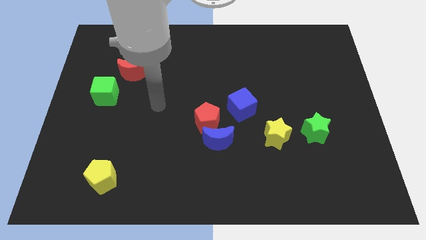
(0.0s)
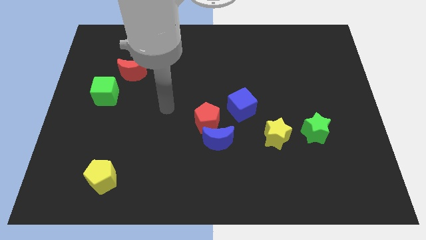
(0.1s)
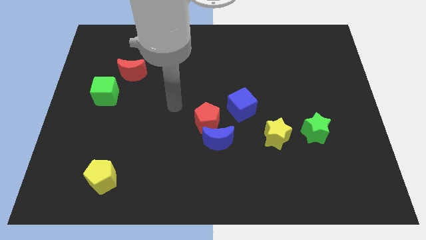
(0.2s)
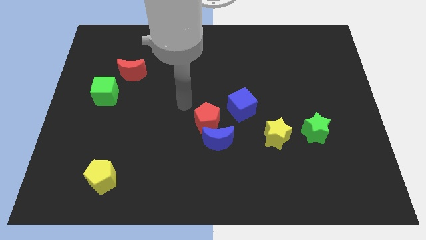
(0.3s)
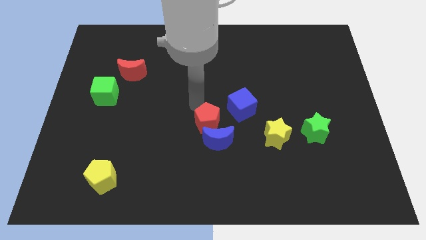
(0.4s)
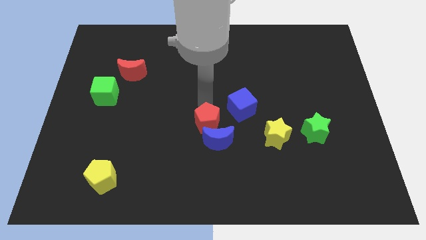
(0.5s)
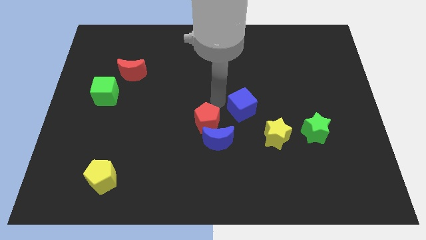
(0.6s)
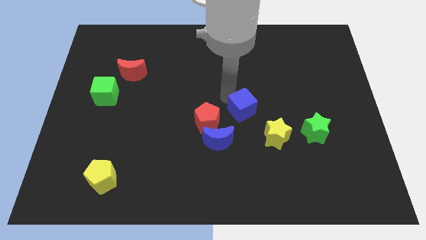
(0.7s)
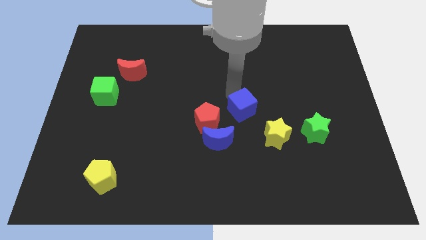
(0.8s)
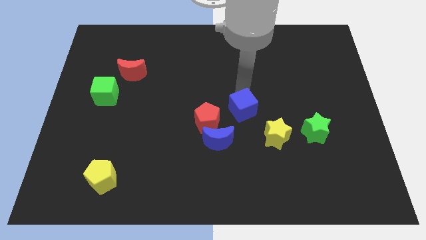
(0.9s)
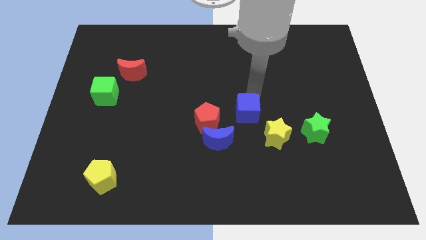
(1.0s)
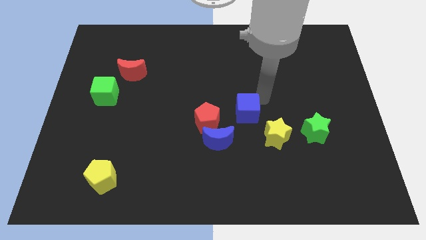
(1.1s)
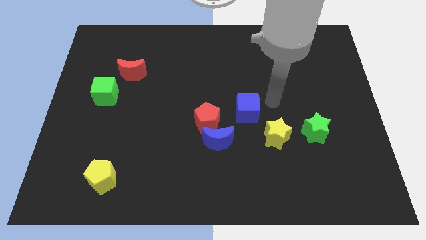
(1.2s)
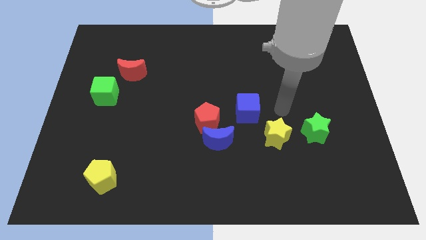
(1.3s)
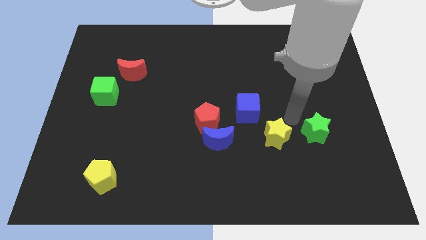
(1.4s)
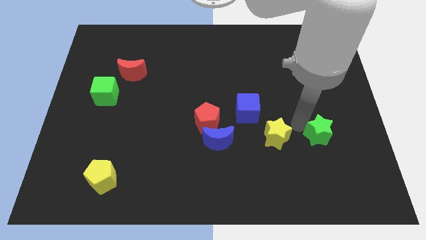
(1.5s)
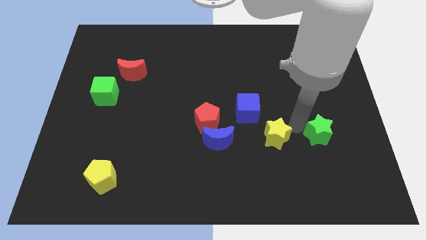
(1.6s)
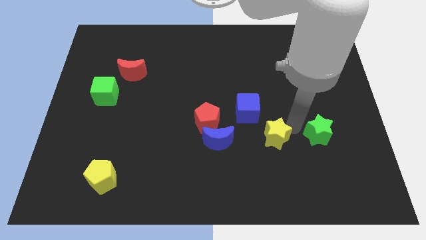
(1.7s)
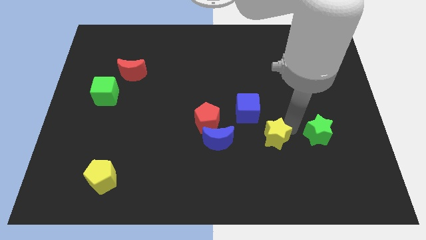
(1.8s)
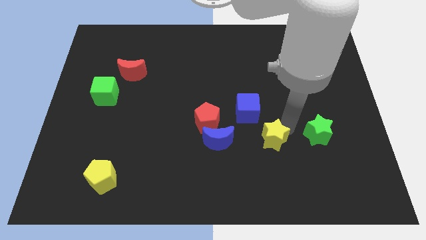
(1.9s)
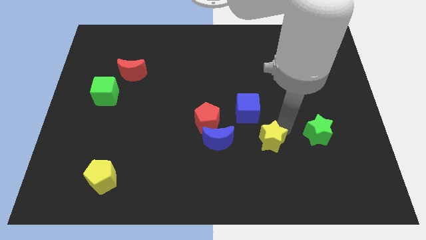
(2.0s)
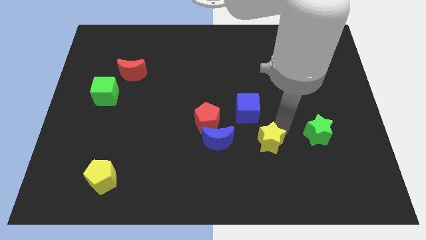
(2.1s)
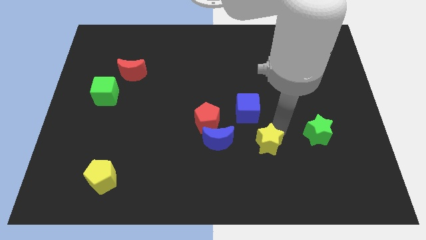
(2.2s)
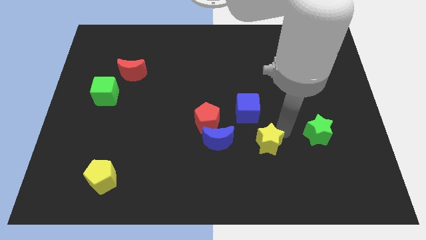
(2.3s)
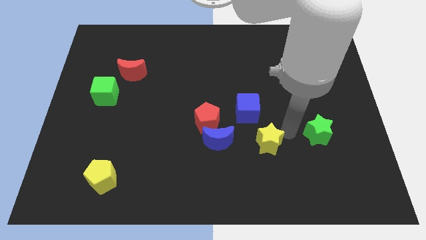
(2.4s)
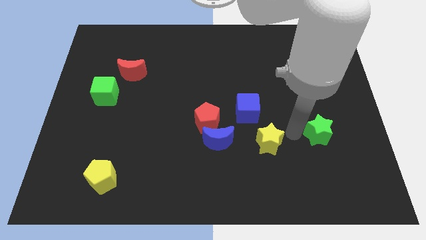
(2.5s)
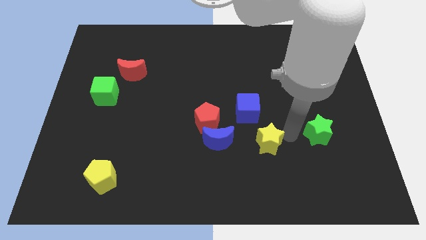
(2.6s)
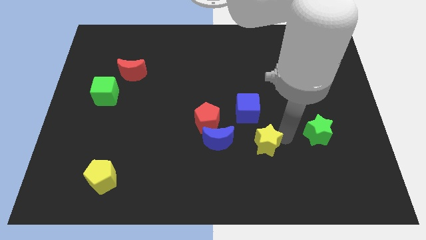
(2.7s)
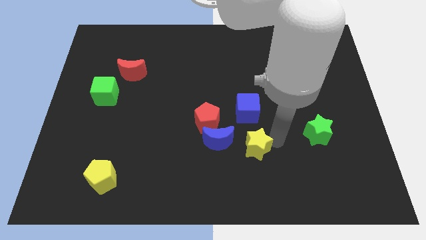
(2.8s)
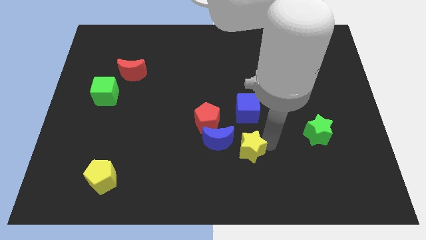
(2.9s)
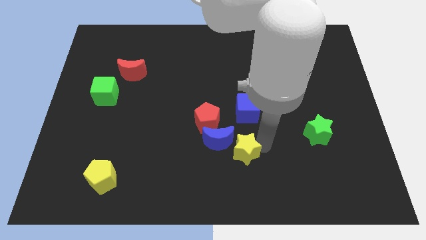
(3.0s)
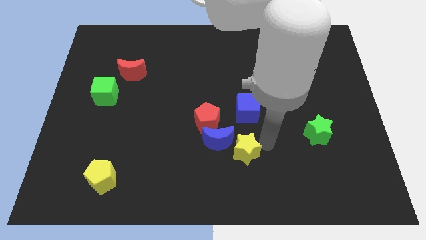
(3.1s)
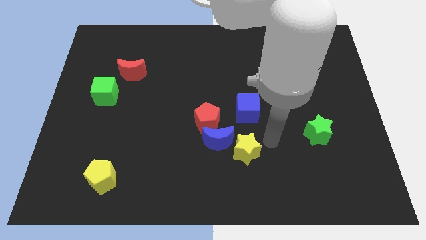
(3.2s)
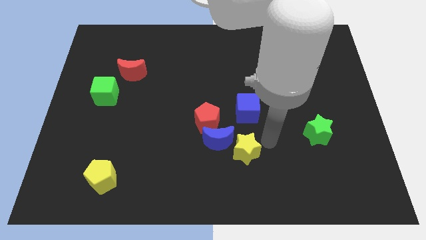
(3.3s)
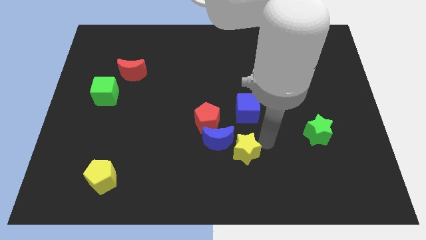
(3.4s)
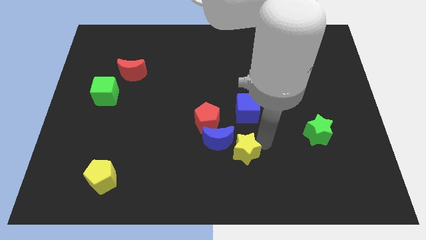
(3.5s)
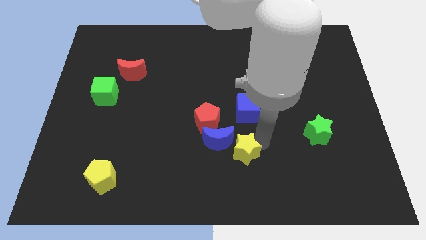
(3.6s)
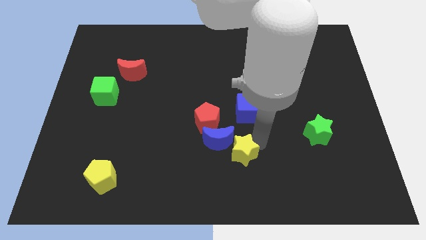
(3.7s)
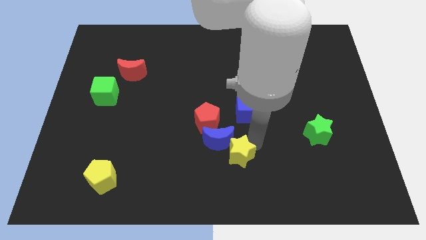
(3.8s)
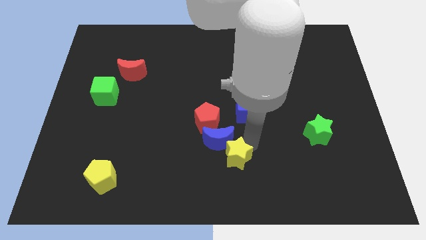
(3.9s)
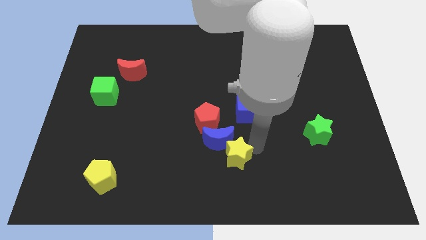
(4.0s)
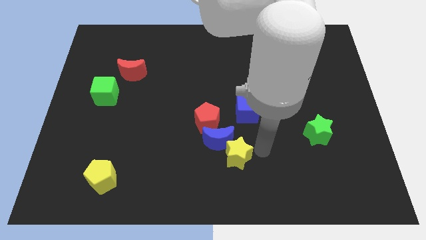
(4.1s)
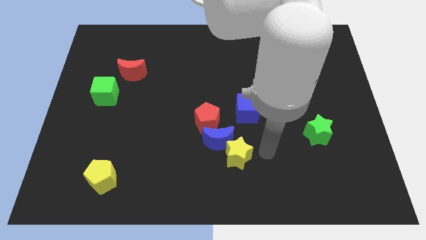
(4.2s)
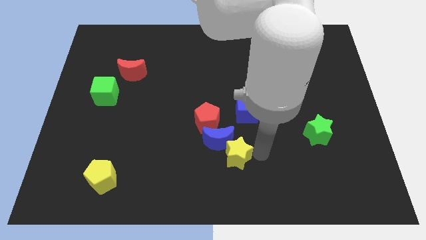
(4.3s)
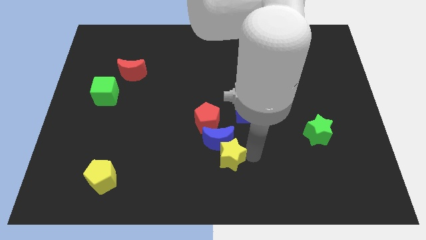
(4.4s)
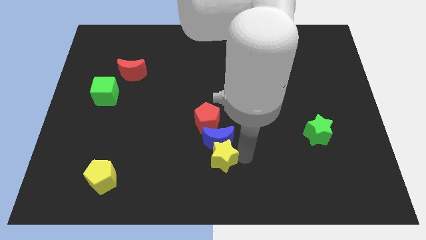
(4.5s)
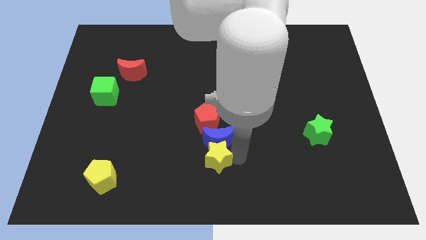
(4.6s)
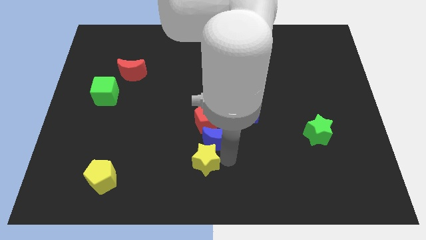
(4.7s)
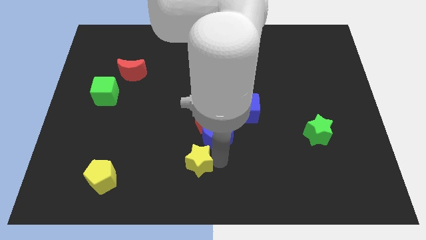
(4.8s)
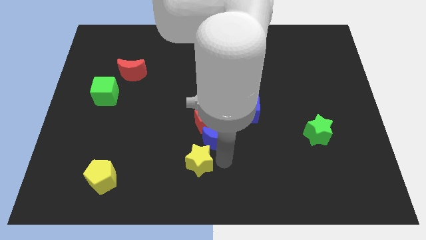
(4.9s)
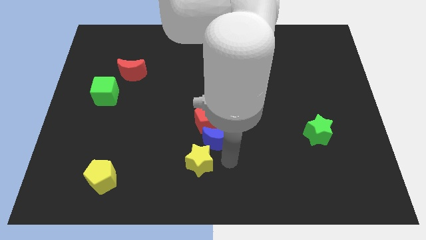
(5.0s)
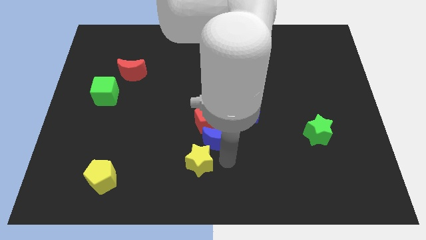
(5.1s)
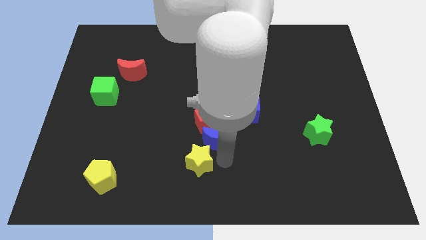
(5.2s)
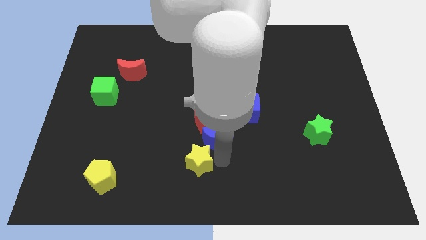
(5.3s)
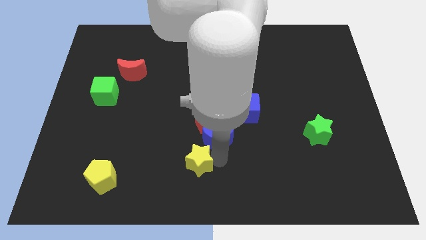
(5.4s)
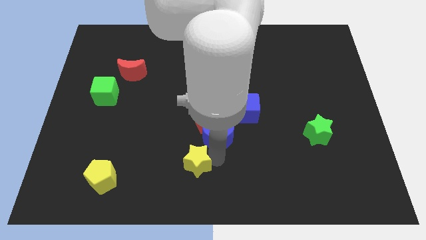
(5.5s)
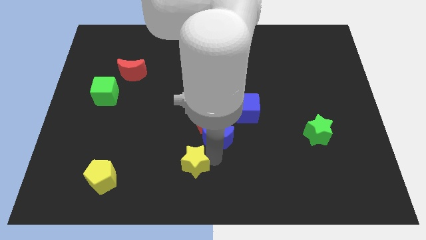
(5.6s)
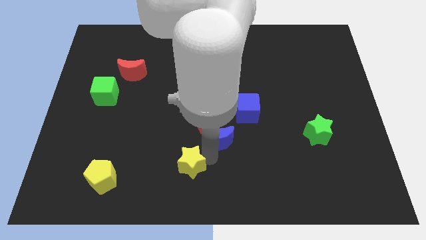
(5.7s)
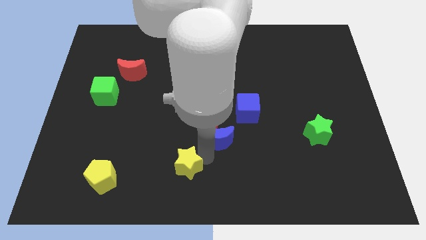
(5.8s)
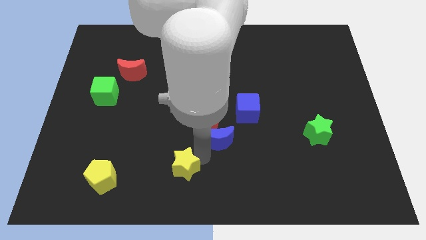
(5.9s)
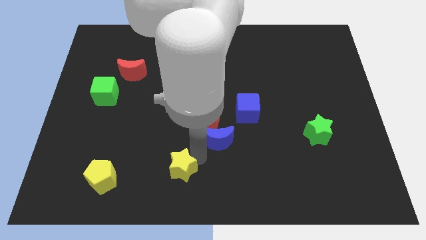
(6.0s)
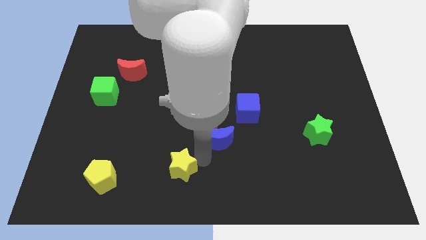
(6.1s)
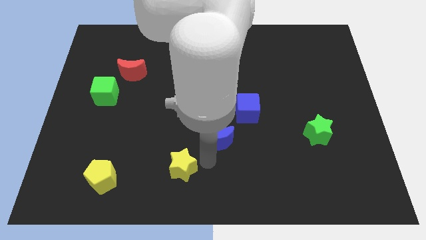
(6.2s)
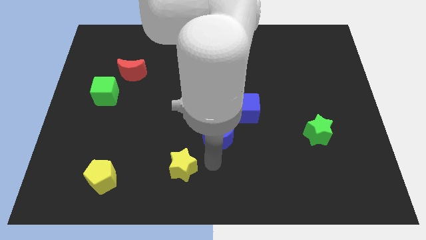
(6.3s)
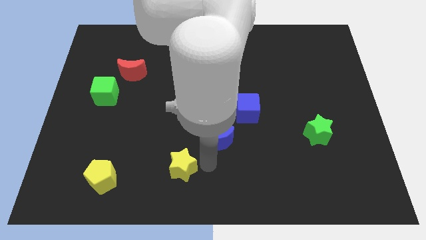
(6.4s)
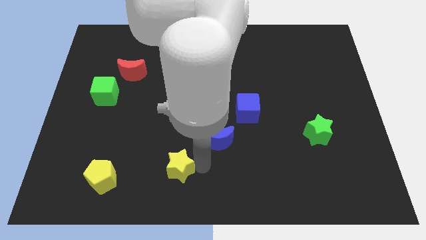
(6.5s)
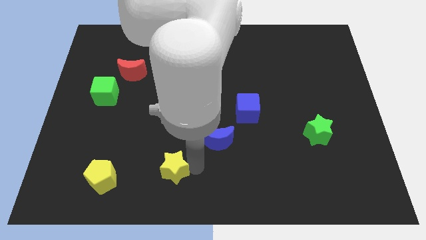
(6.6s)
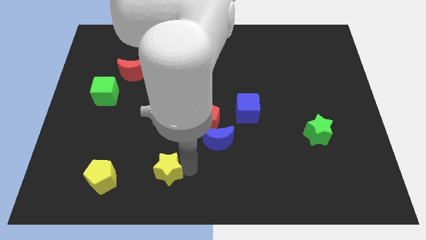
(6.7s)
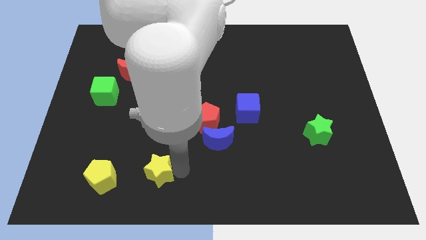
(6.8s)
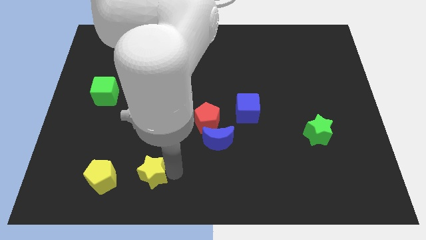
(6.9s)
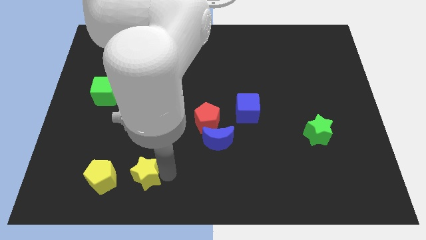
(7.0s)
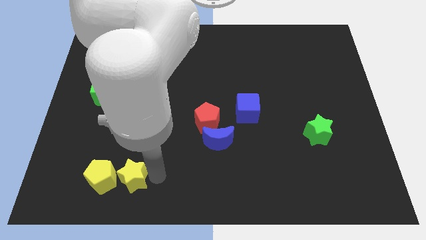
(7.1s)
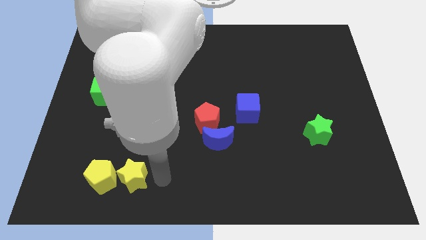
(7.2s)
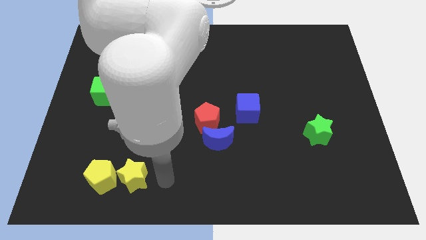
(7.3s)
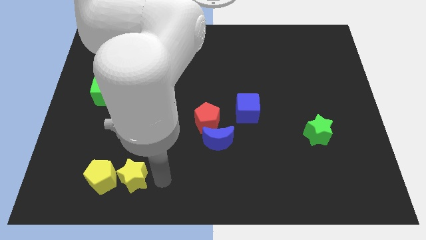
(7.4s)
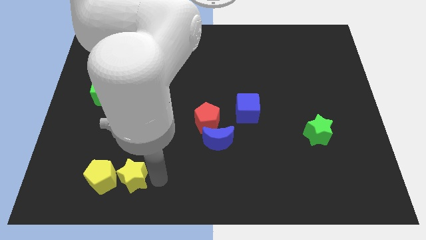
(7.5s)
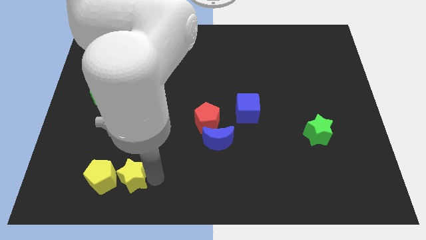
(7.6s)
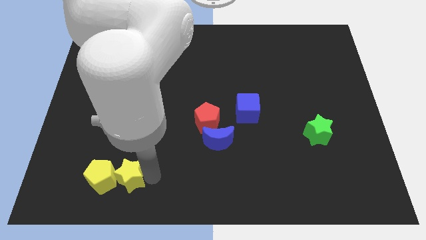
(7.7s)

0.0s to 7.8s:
move the yellow star close to the yellow pentagon
